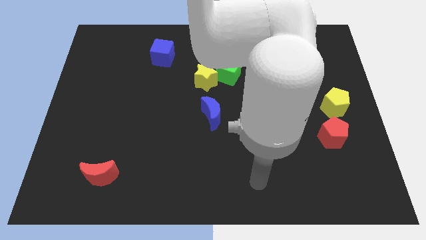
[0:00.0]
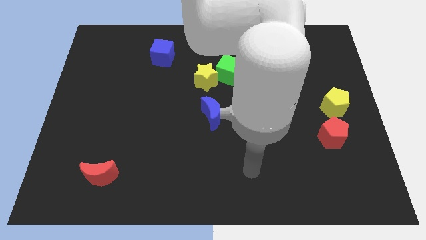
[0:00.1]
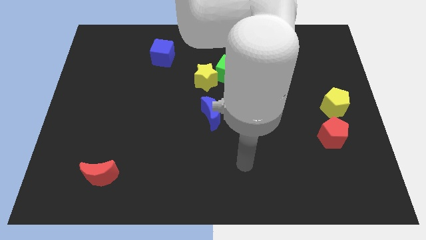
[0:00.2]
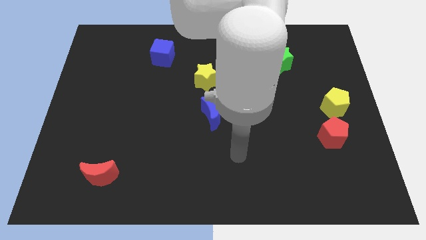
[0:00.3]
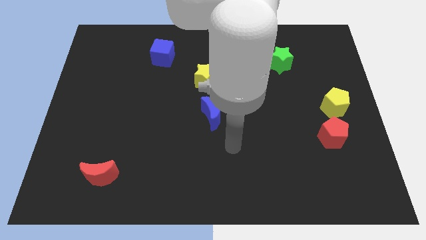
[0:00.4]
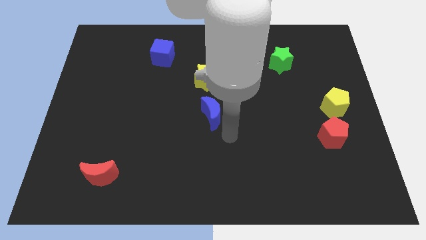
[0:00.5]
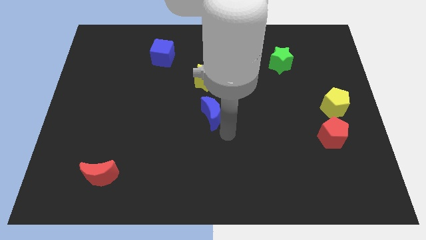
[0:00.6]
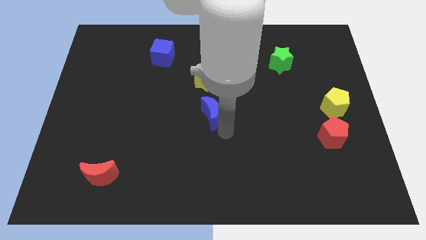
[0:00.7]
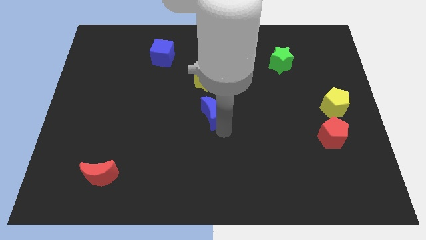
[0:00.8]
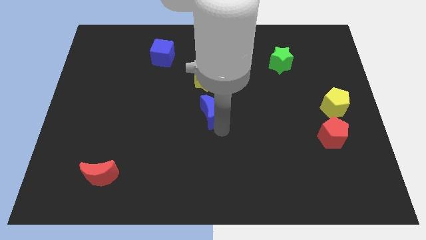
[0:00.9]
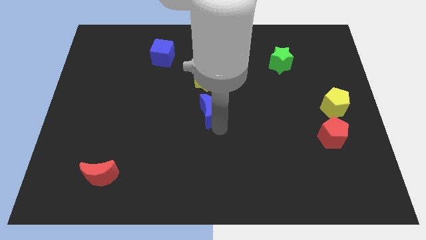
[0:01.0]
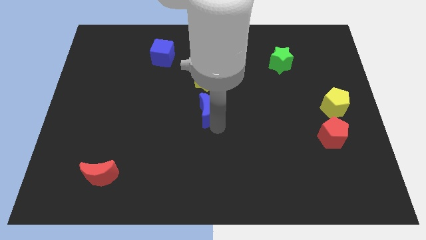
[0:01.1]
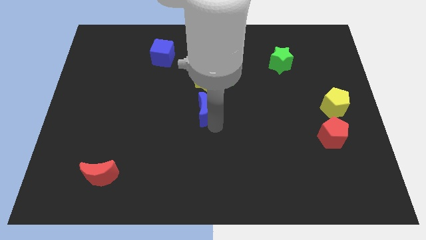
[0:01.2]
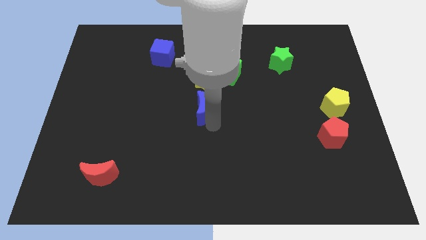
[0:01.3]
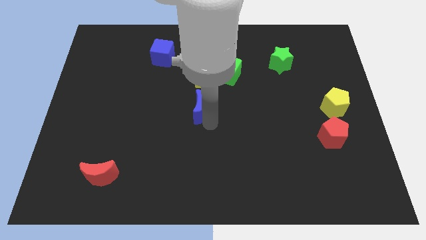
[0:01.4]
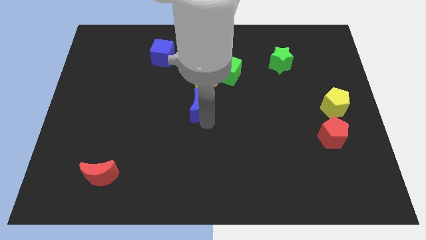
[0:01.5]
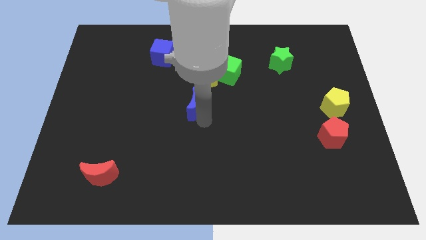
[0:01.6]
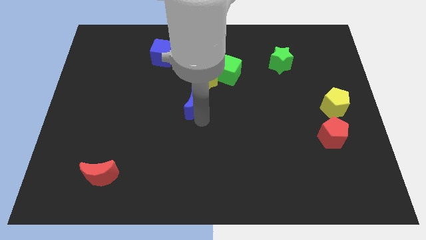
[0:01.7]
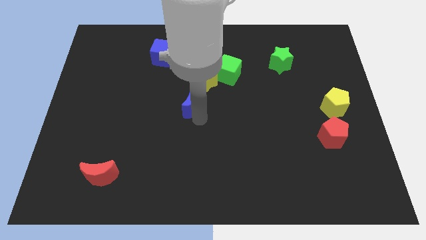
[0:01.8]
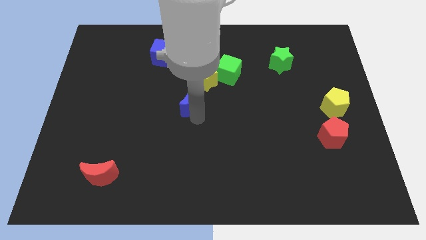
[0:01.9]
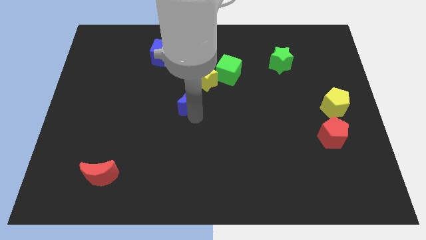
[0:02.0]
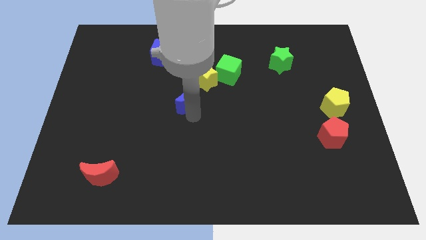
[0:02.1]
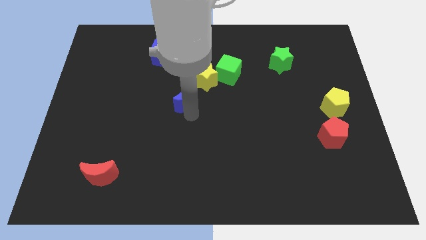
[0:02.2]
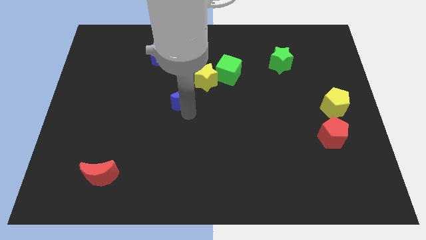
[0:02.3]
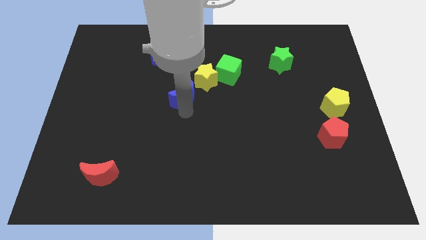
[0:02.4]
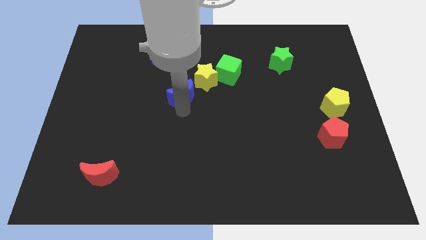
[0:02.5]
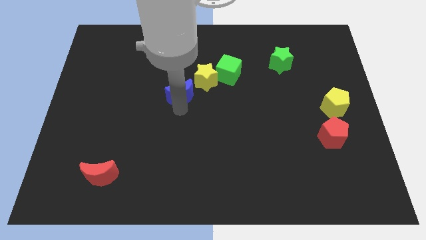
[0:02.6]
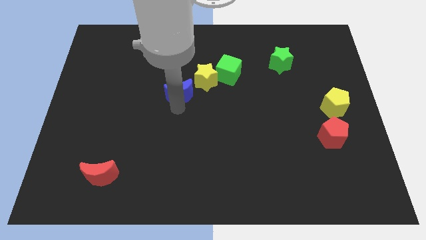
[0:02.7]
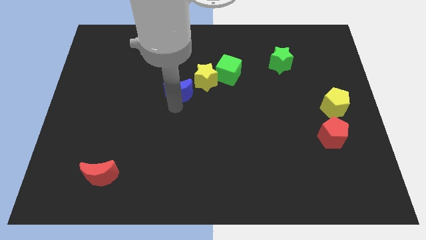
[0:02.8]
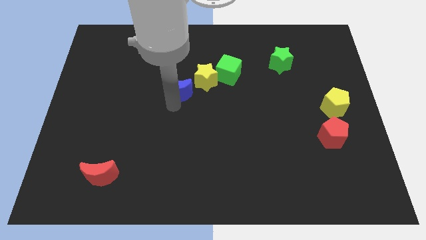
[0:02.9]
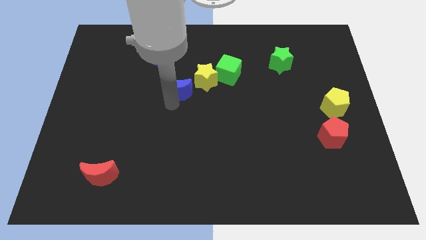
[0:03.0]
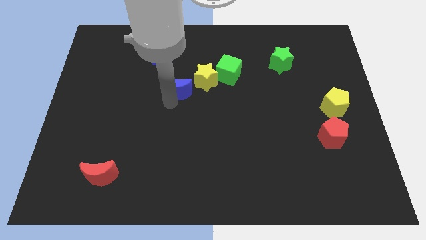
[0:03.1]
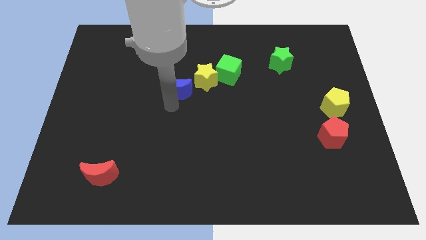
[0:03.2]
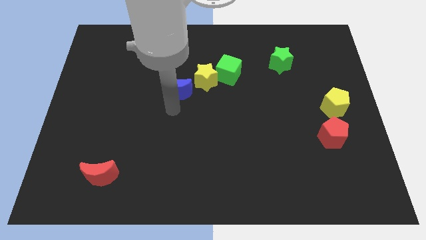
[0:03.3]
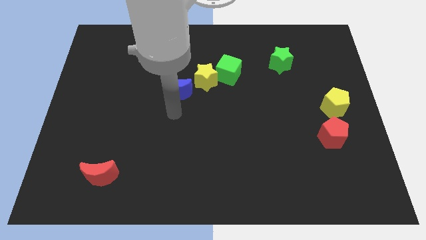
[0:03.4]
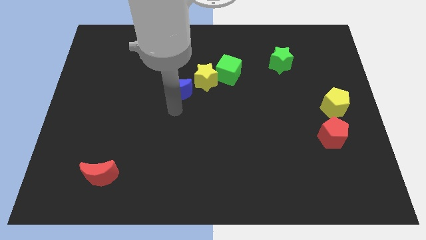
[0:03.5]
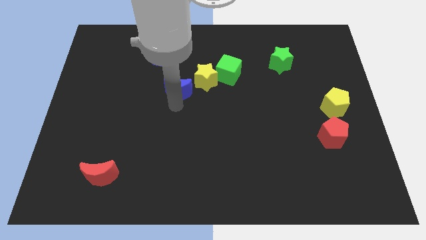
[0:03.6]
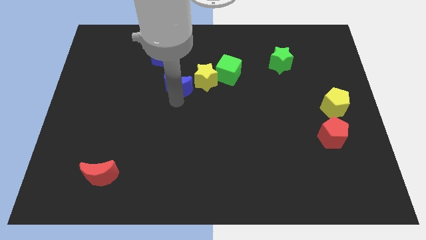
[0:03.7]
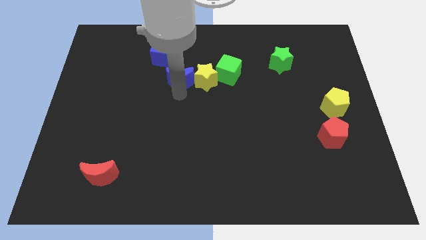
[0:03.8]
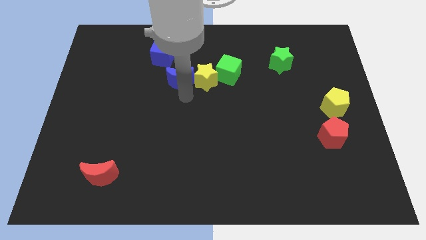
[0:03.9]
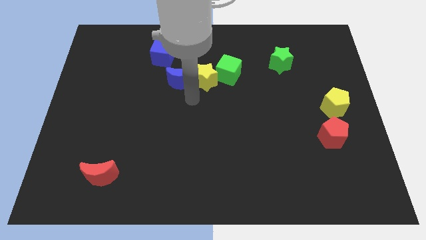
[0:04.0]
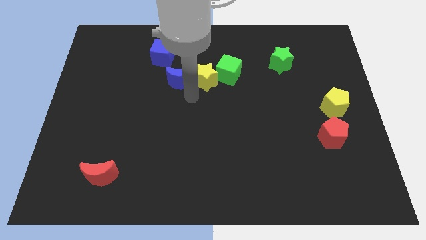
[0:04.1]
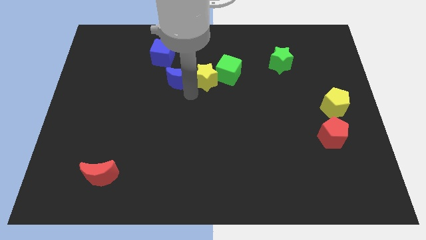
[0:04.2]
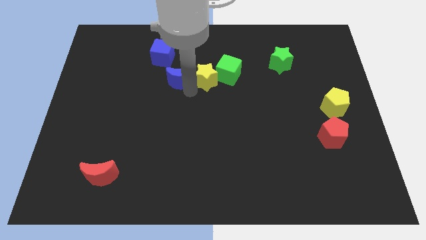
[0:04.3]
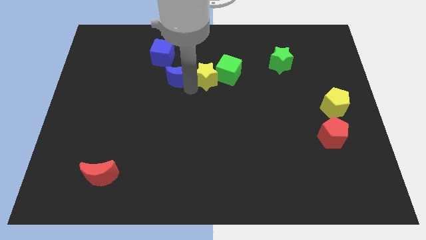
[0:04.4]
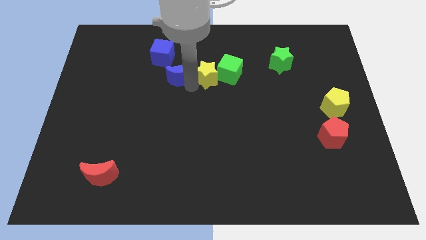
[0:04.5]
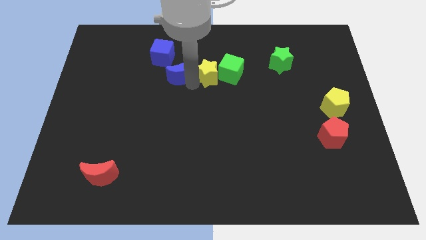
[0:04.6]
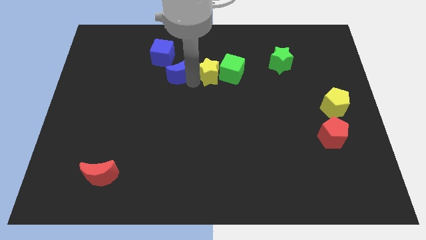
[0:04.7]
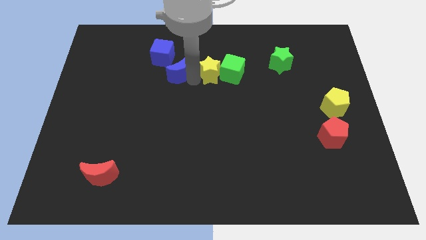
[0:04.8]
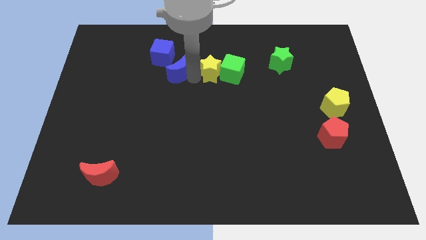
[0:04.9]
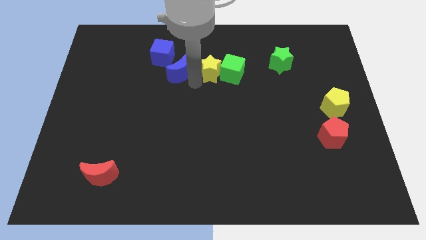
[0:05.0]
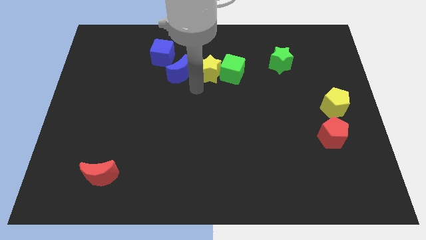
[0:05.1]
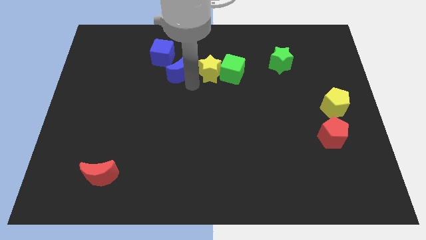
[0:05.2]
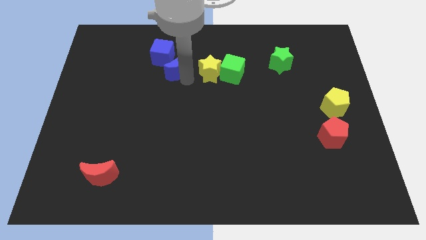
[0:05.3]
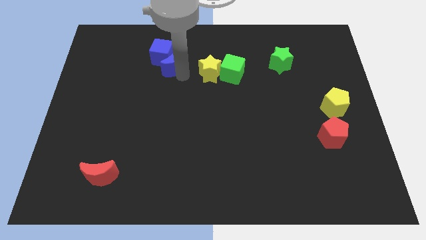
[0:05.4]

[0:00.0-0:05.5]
slide the blue moon close to the blue cube

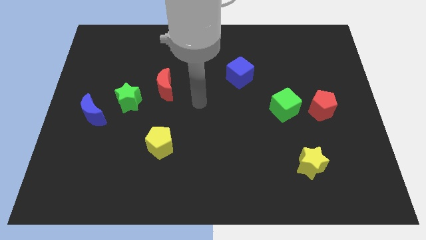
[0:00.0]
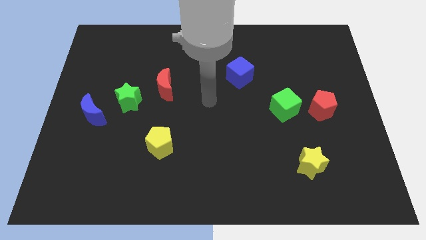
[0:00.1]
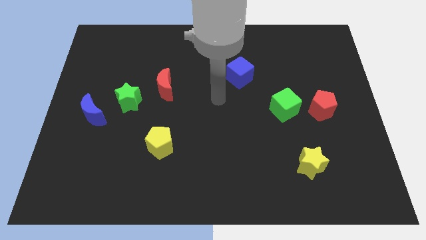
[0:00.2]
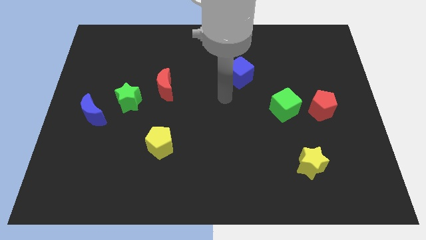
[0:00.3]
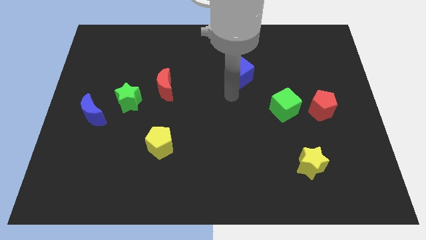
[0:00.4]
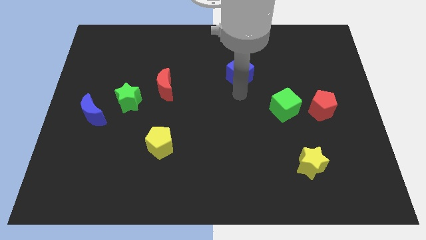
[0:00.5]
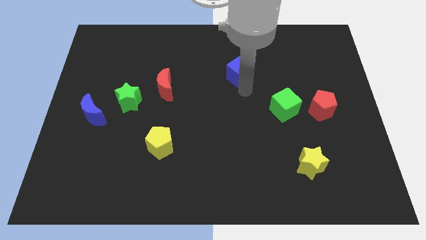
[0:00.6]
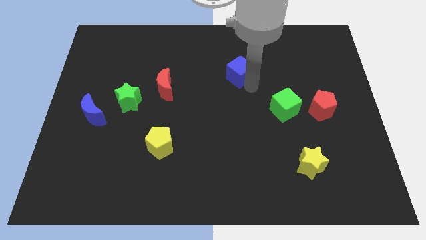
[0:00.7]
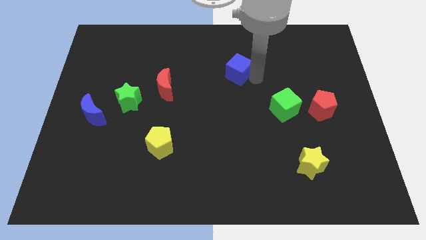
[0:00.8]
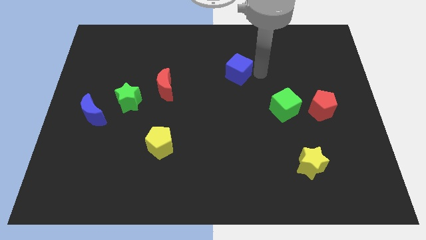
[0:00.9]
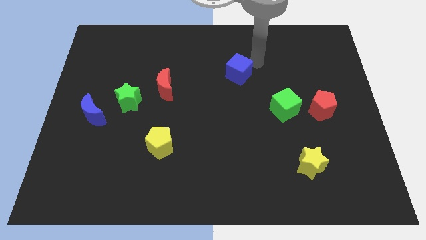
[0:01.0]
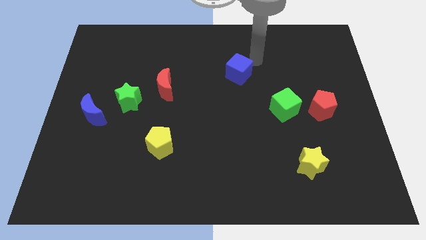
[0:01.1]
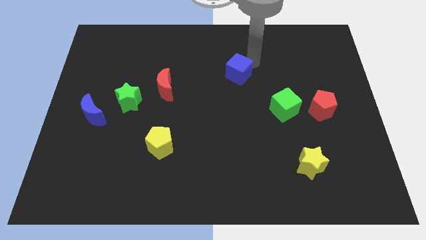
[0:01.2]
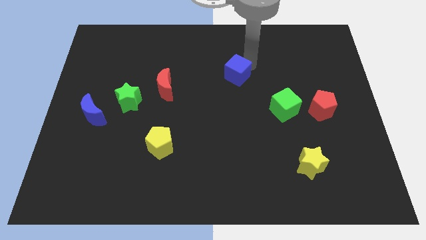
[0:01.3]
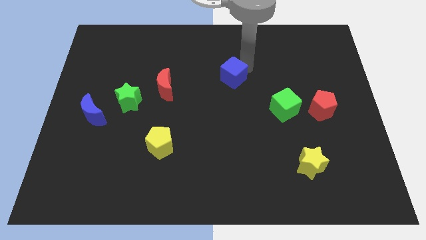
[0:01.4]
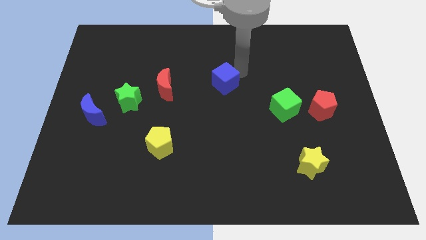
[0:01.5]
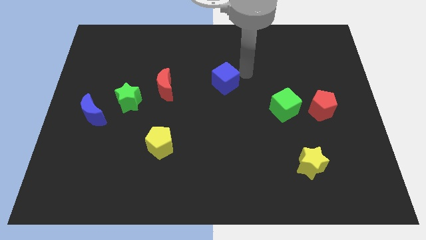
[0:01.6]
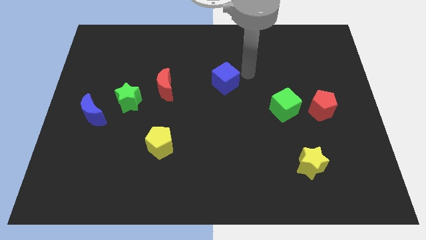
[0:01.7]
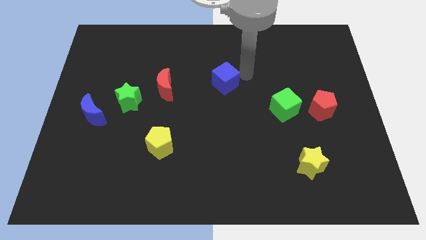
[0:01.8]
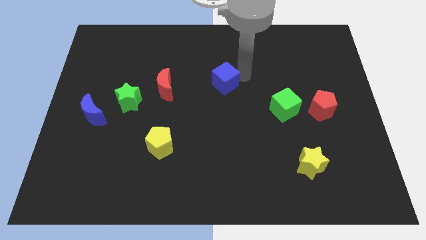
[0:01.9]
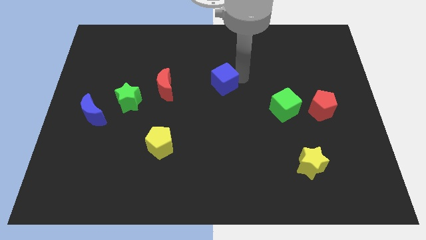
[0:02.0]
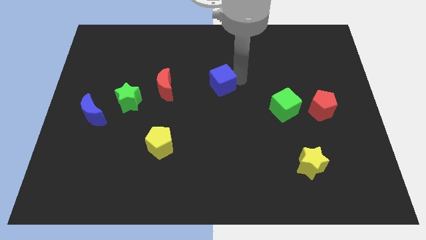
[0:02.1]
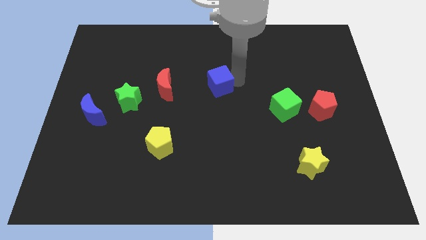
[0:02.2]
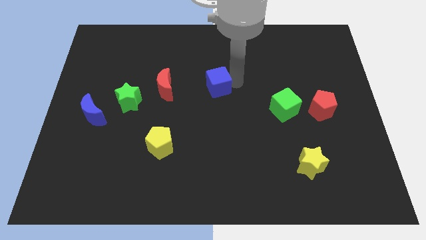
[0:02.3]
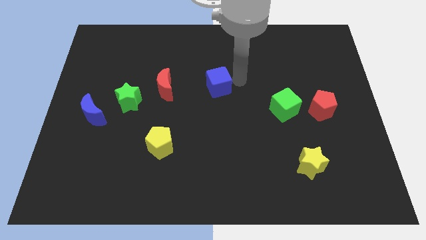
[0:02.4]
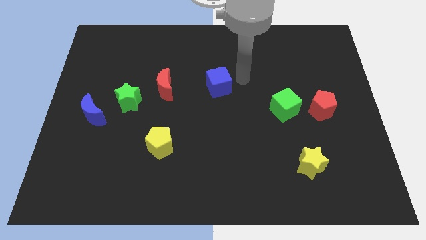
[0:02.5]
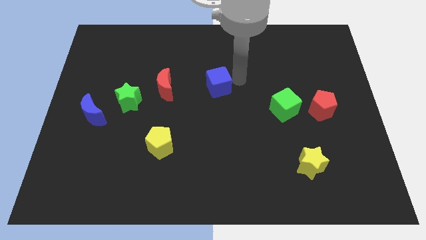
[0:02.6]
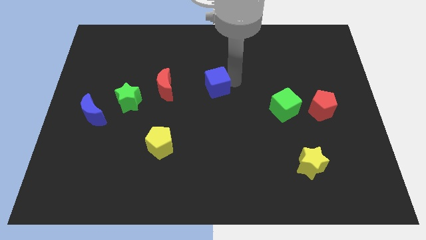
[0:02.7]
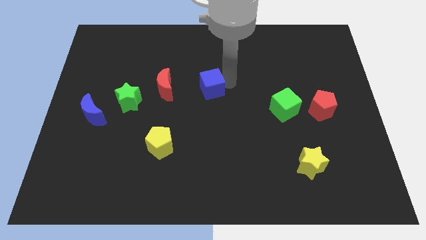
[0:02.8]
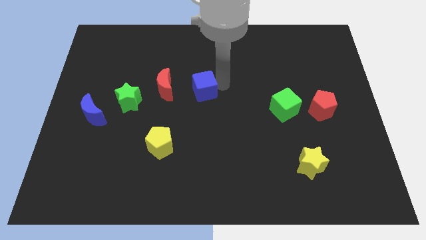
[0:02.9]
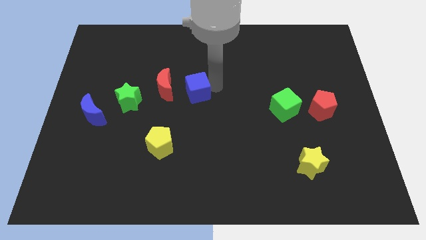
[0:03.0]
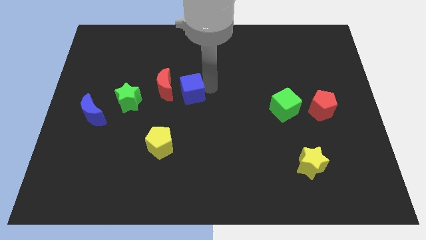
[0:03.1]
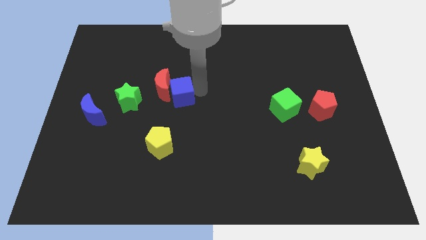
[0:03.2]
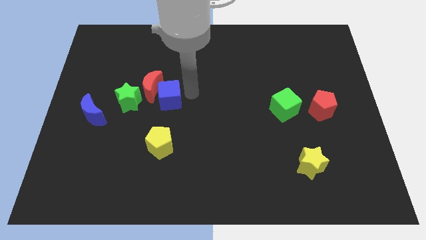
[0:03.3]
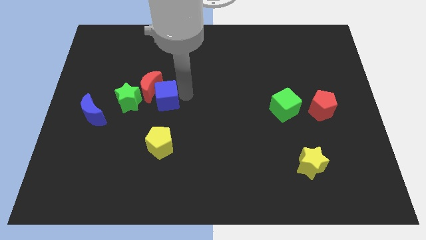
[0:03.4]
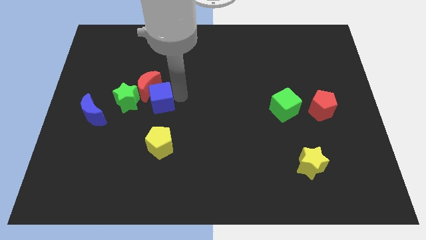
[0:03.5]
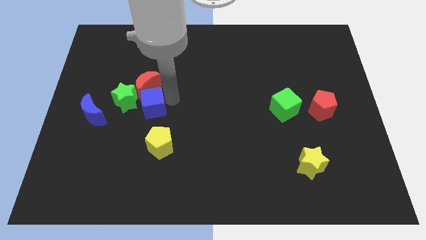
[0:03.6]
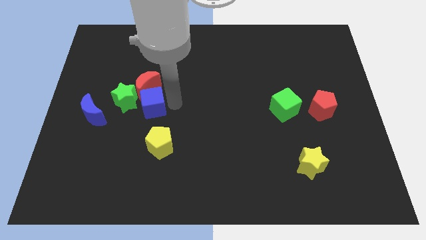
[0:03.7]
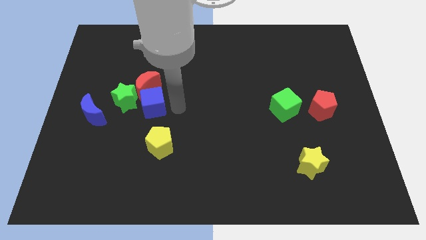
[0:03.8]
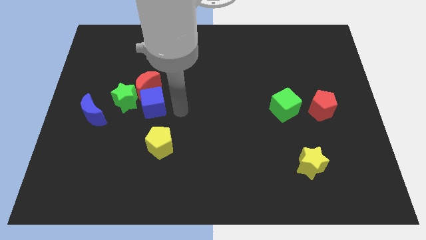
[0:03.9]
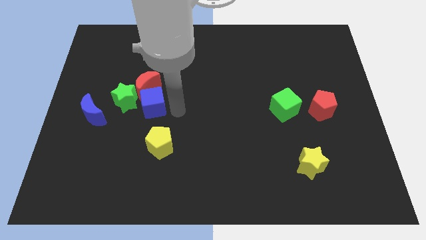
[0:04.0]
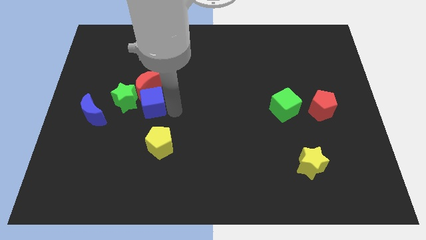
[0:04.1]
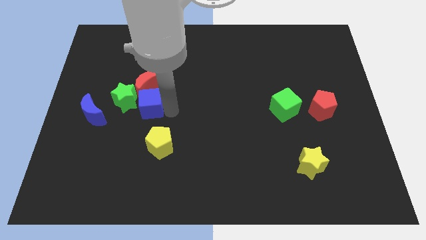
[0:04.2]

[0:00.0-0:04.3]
slide the blue cube next to the green star
